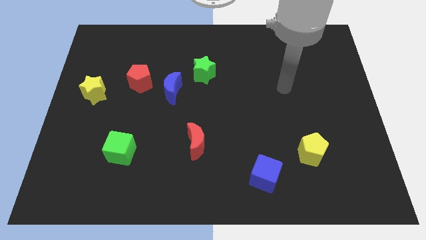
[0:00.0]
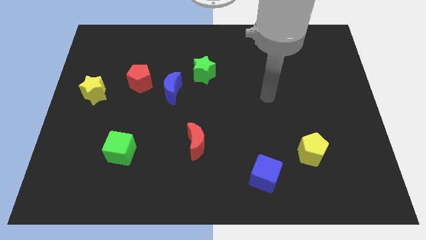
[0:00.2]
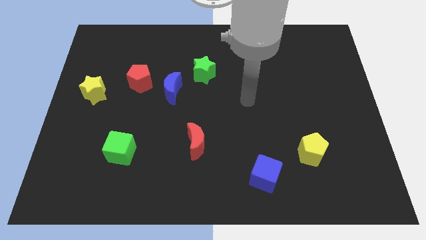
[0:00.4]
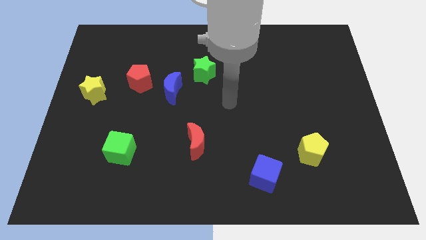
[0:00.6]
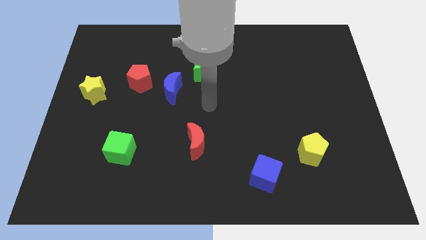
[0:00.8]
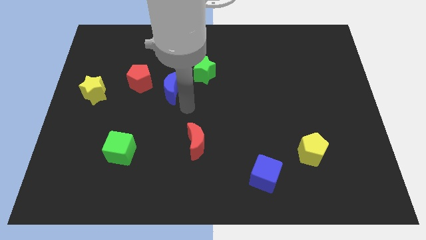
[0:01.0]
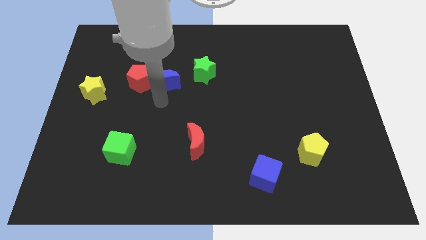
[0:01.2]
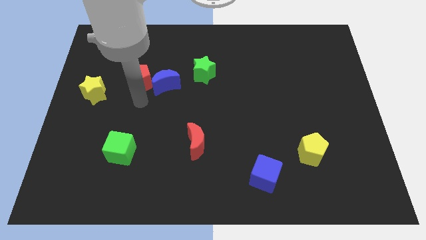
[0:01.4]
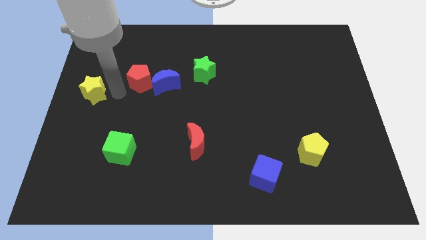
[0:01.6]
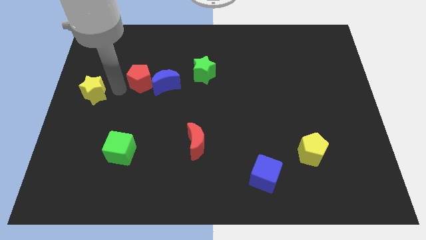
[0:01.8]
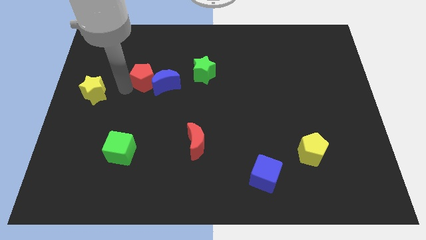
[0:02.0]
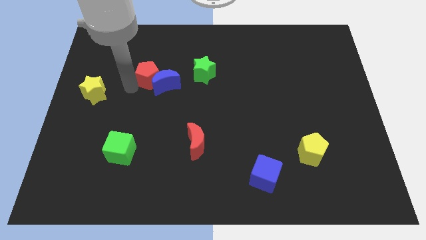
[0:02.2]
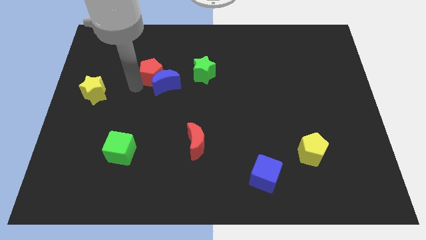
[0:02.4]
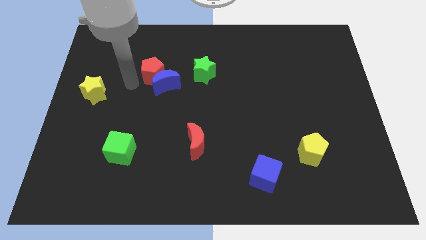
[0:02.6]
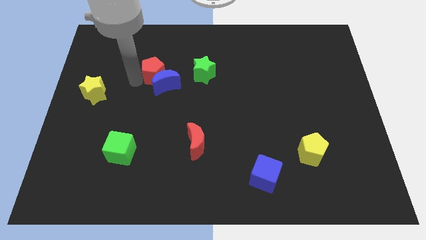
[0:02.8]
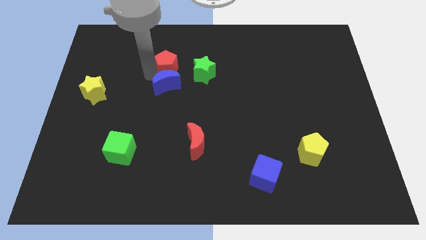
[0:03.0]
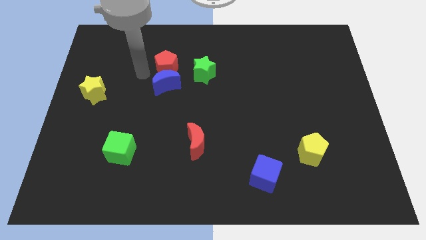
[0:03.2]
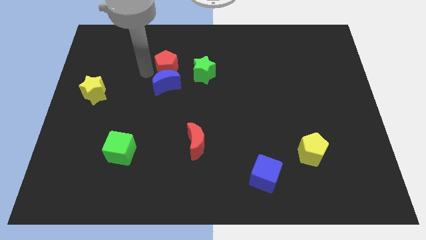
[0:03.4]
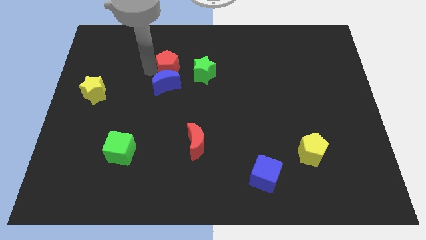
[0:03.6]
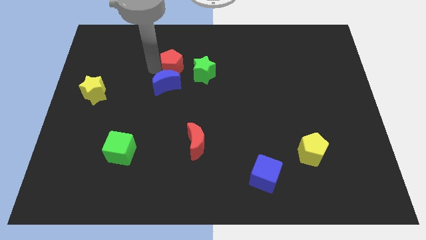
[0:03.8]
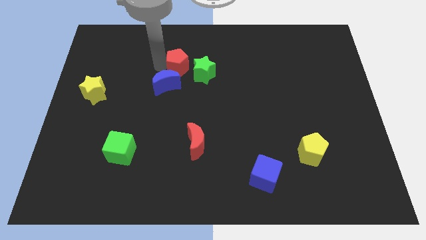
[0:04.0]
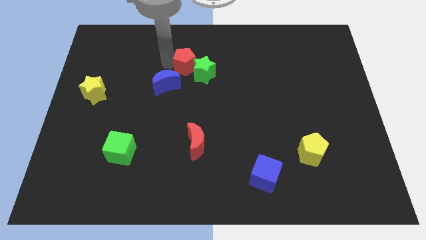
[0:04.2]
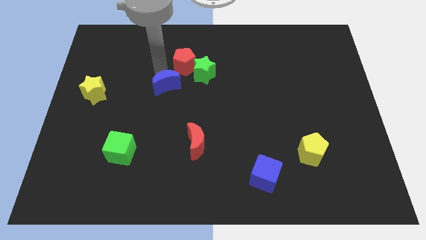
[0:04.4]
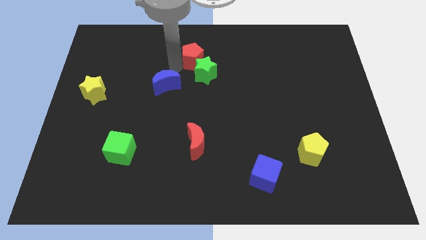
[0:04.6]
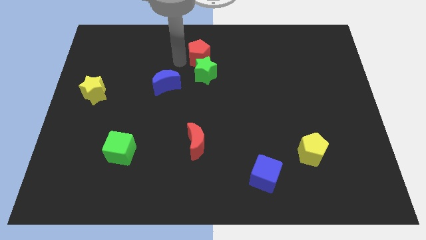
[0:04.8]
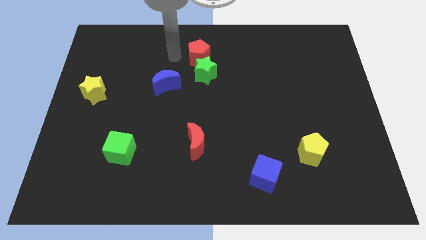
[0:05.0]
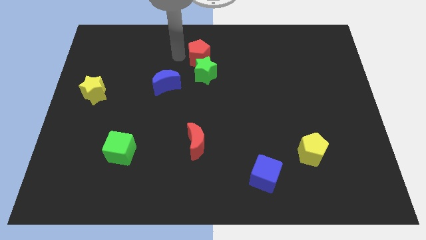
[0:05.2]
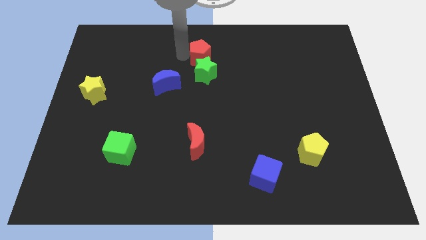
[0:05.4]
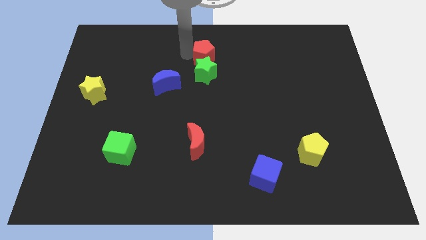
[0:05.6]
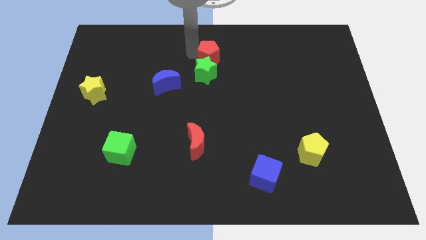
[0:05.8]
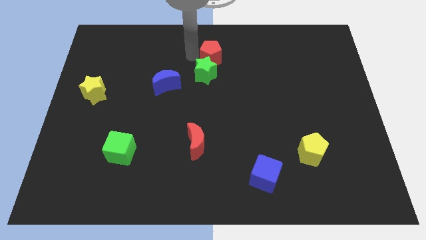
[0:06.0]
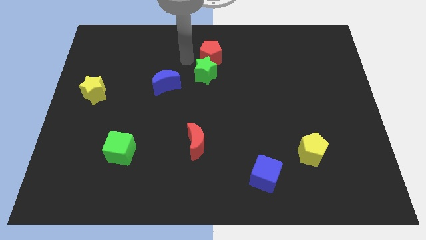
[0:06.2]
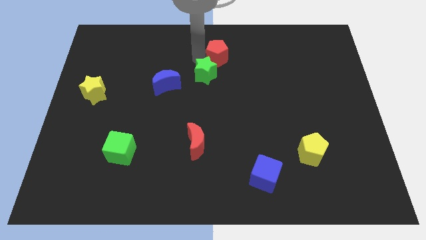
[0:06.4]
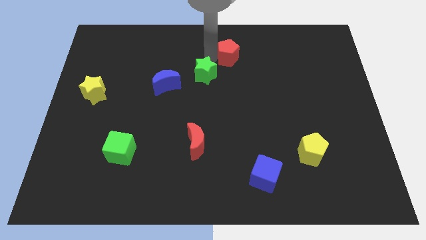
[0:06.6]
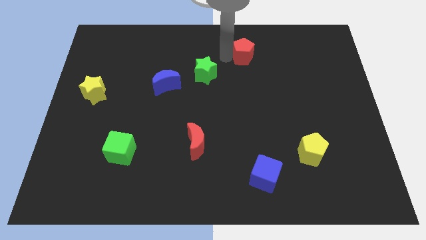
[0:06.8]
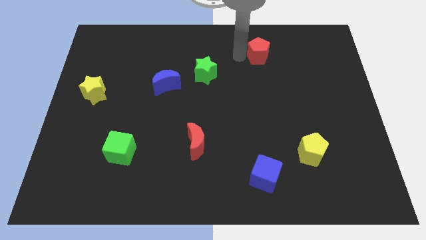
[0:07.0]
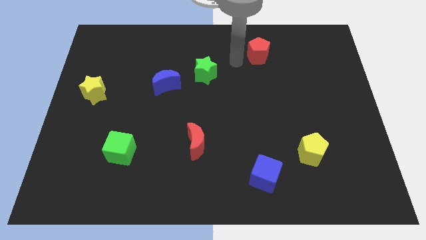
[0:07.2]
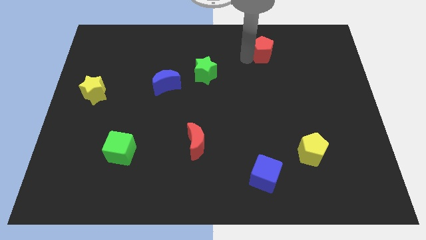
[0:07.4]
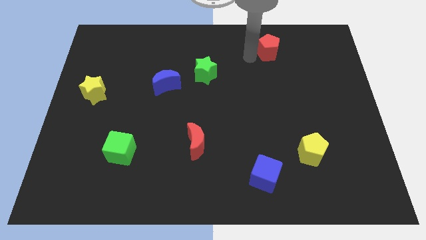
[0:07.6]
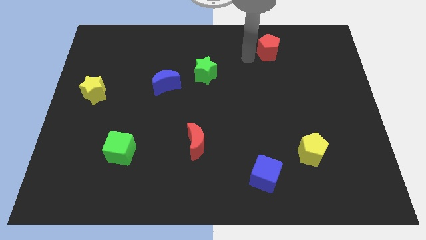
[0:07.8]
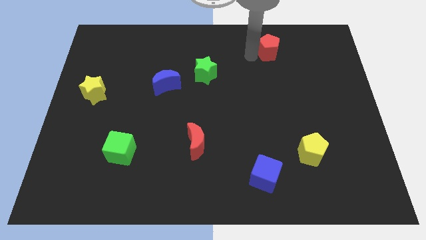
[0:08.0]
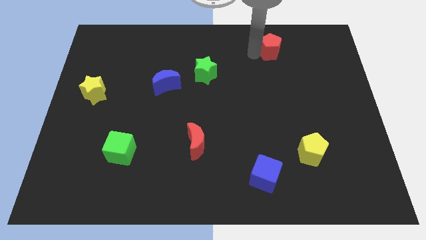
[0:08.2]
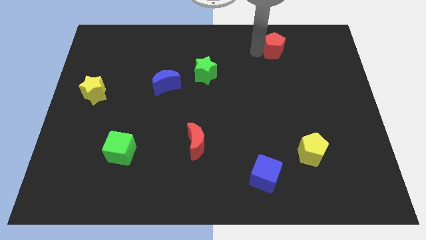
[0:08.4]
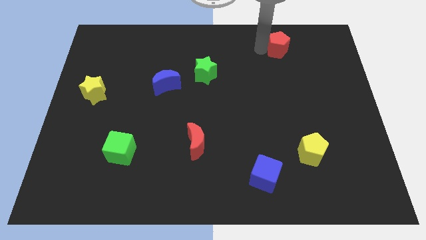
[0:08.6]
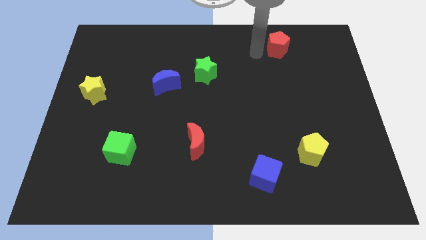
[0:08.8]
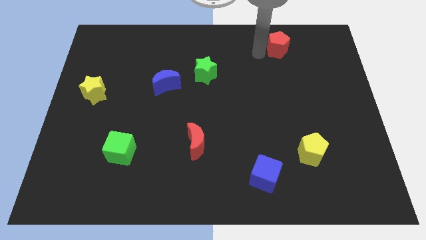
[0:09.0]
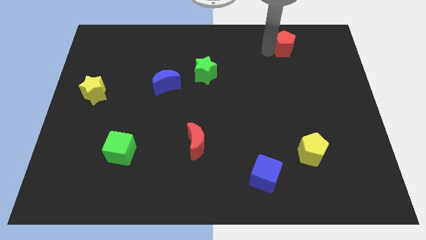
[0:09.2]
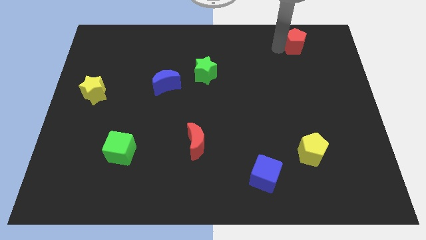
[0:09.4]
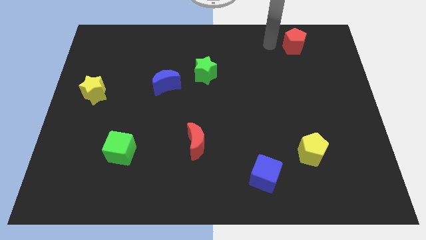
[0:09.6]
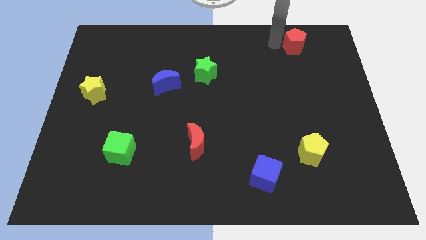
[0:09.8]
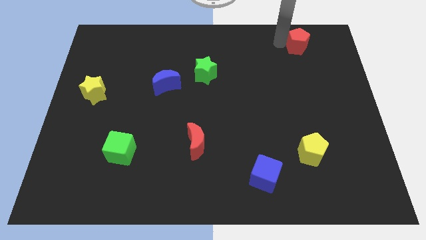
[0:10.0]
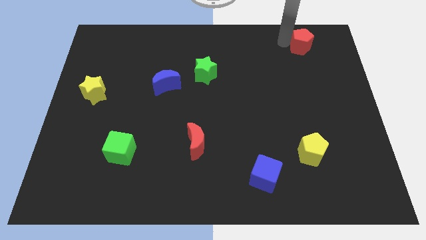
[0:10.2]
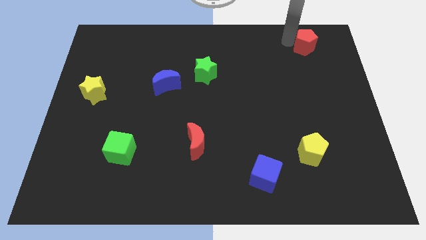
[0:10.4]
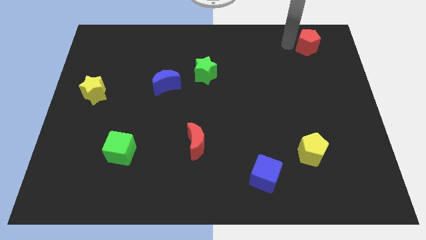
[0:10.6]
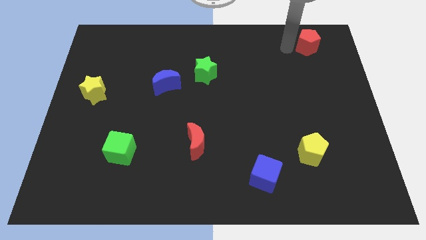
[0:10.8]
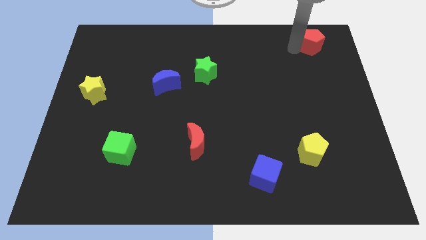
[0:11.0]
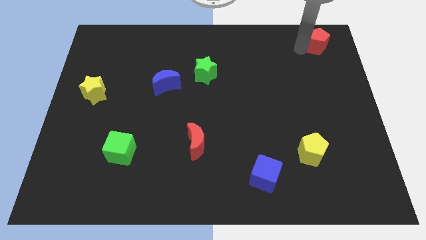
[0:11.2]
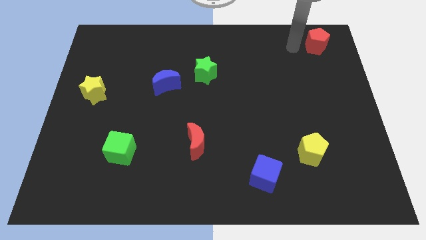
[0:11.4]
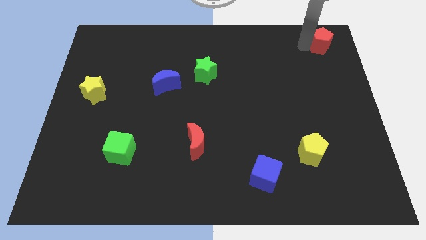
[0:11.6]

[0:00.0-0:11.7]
put the red pentagon to the top right of the board
